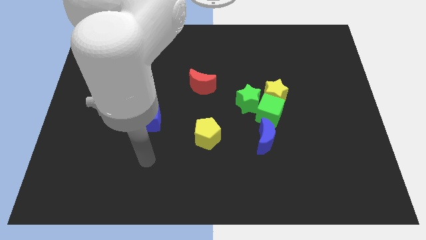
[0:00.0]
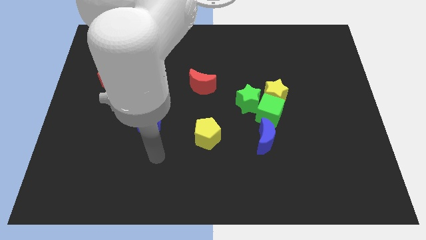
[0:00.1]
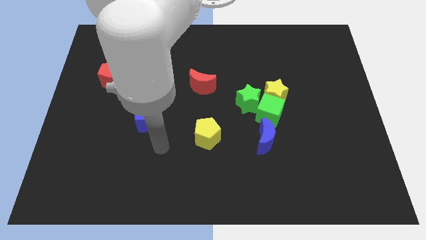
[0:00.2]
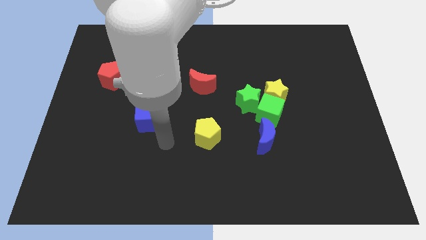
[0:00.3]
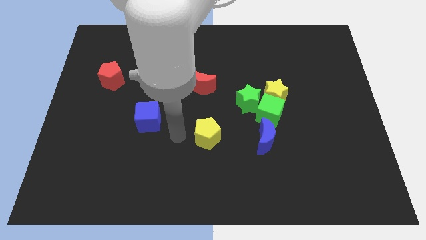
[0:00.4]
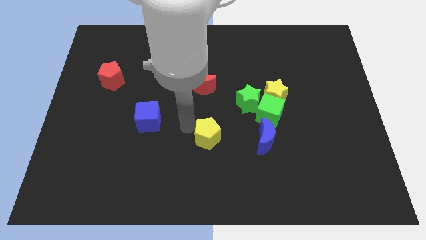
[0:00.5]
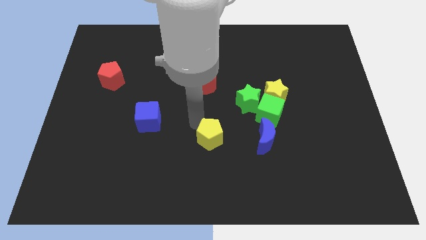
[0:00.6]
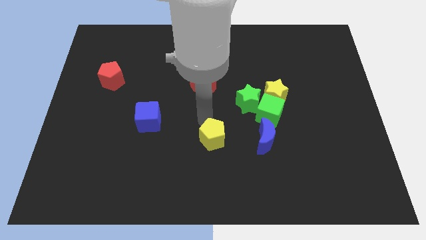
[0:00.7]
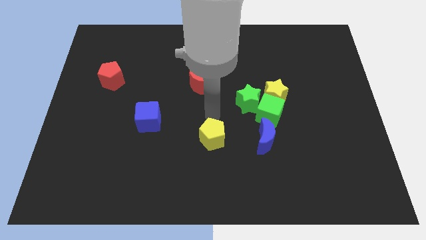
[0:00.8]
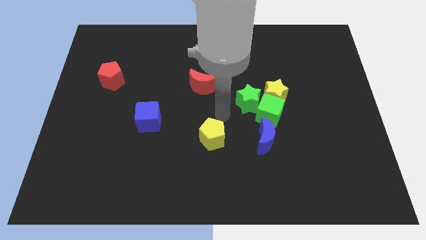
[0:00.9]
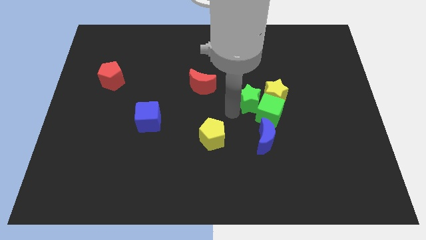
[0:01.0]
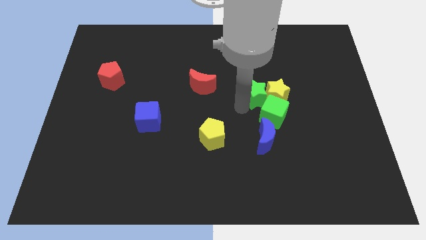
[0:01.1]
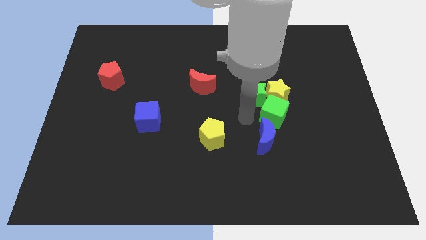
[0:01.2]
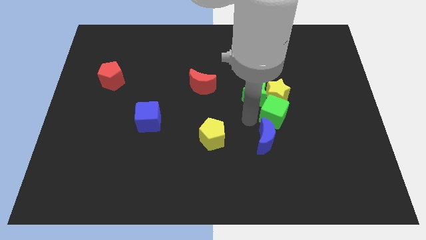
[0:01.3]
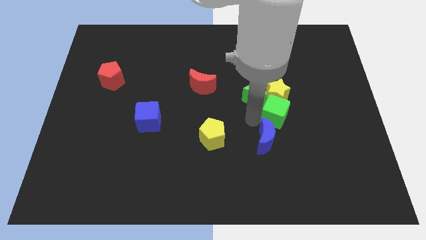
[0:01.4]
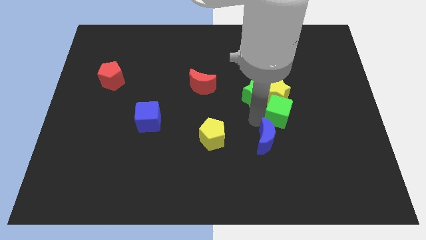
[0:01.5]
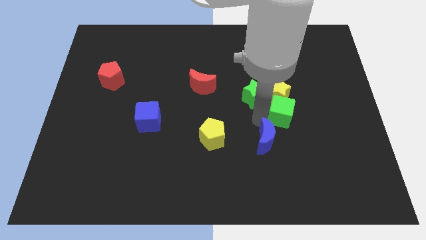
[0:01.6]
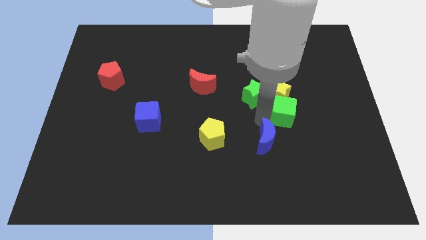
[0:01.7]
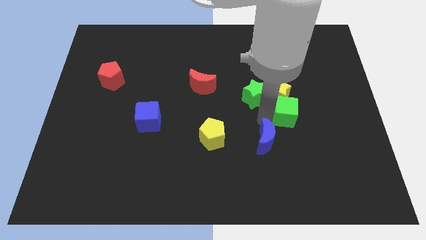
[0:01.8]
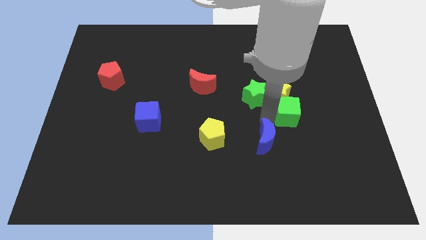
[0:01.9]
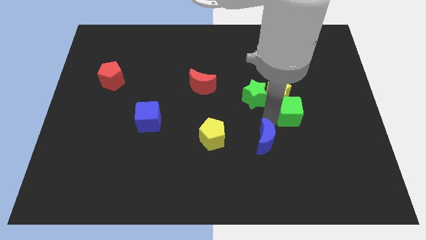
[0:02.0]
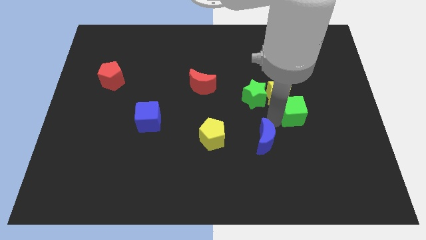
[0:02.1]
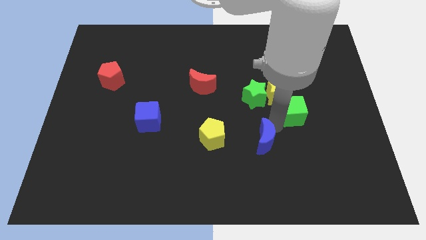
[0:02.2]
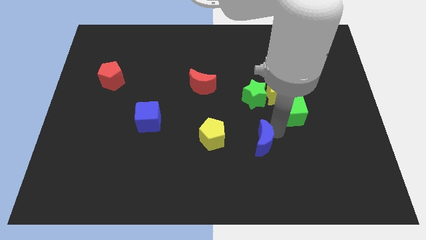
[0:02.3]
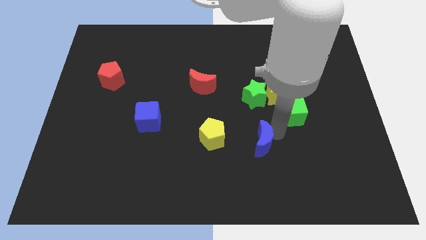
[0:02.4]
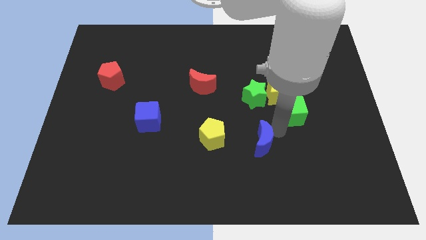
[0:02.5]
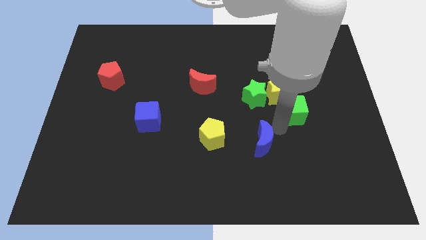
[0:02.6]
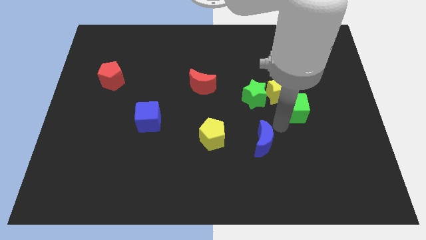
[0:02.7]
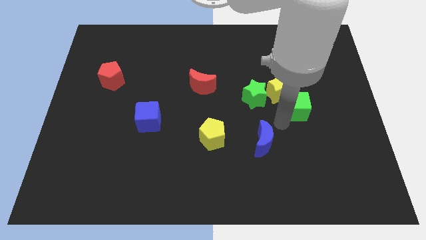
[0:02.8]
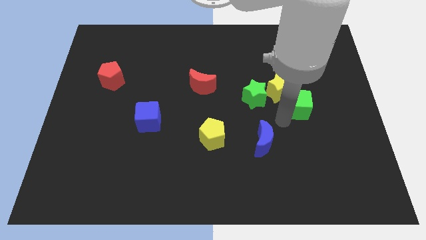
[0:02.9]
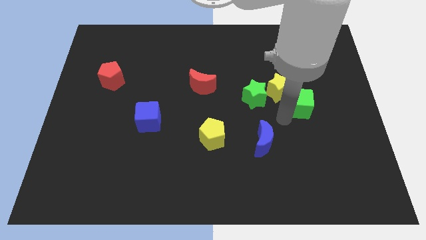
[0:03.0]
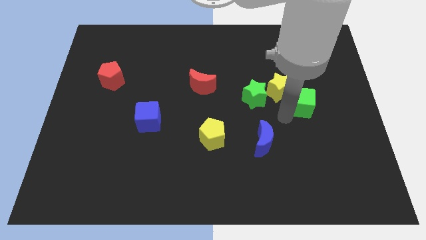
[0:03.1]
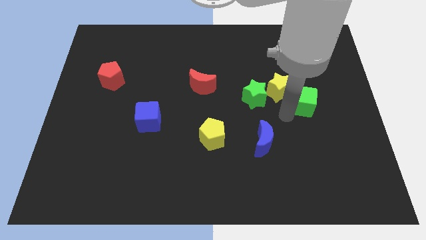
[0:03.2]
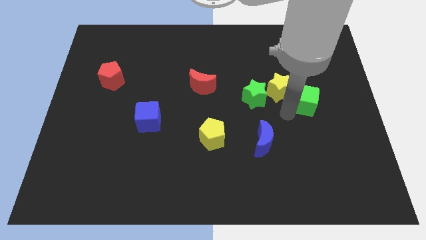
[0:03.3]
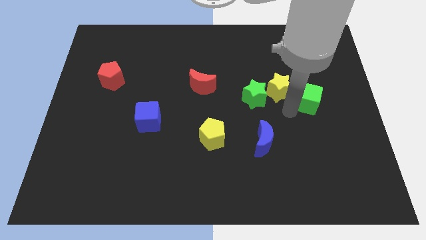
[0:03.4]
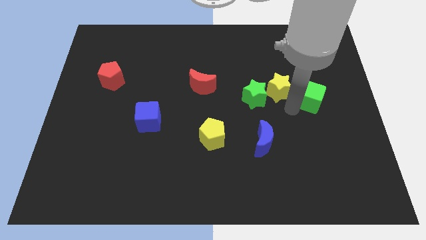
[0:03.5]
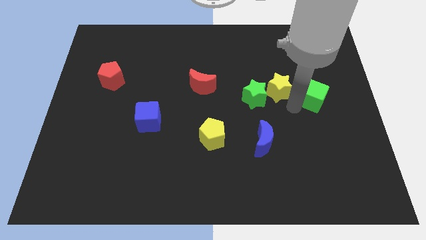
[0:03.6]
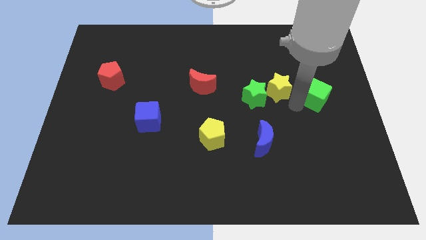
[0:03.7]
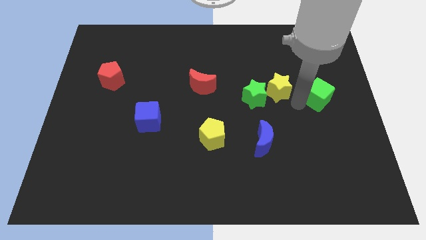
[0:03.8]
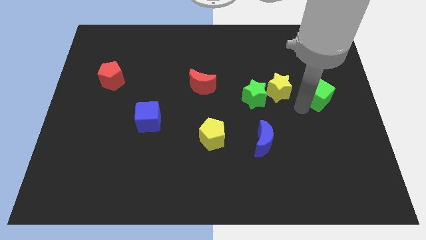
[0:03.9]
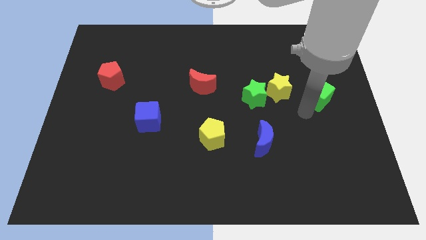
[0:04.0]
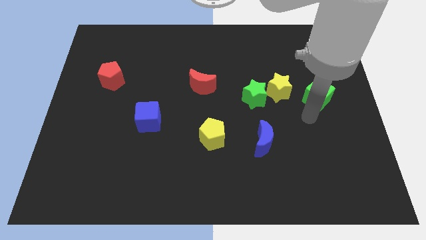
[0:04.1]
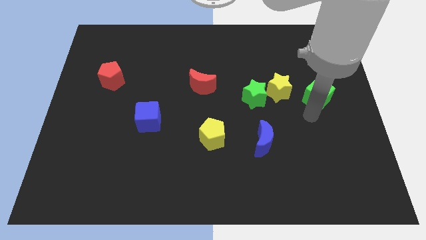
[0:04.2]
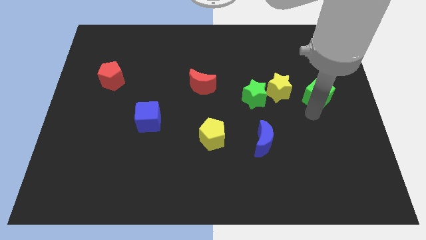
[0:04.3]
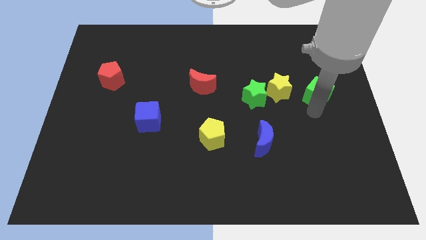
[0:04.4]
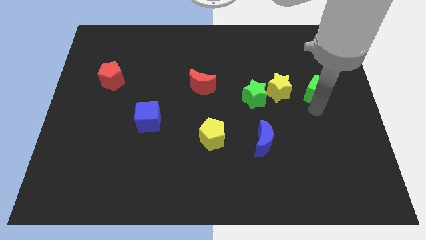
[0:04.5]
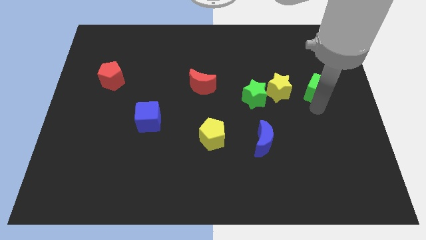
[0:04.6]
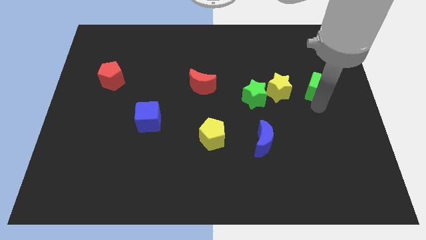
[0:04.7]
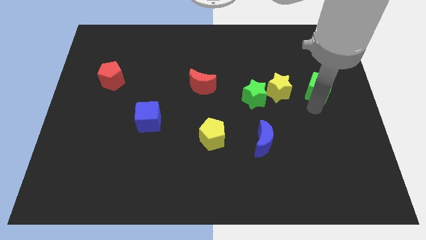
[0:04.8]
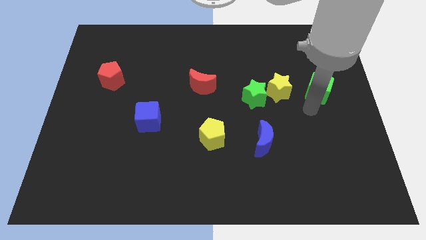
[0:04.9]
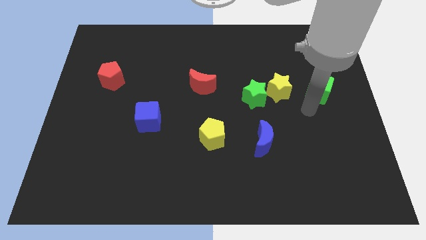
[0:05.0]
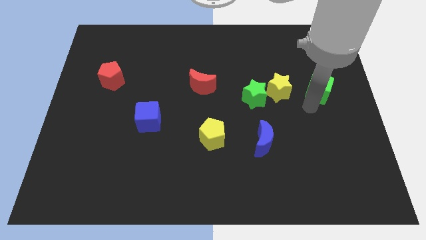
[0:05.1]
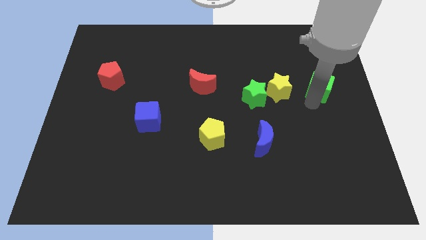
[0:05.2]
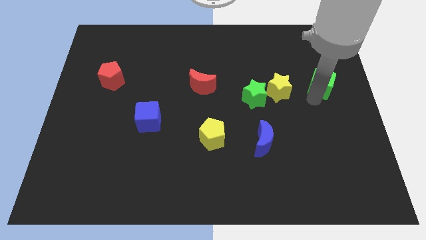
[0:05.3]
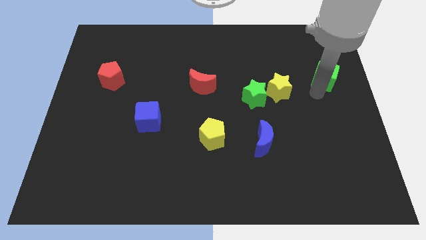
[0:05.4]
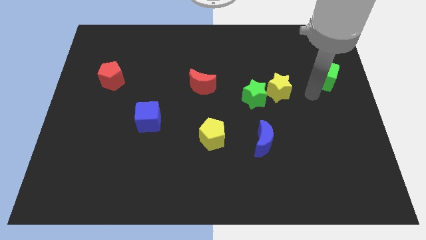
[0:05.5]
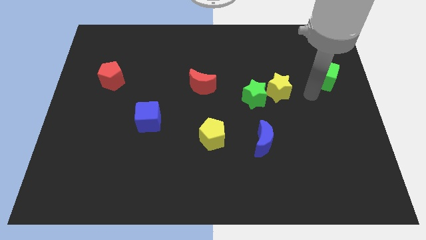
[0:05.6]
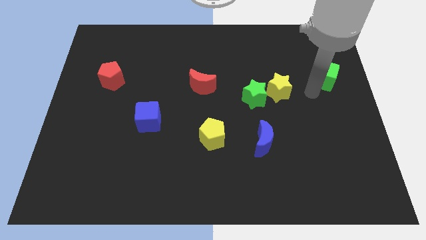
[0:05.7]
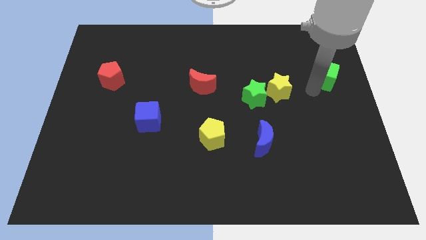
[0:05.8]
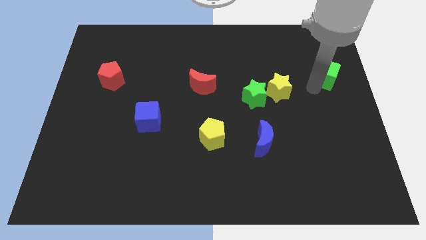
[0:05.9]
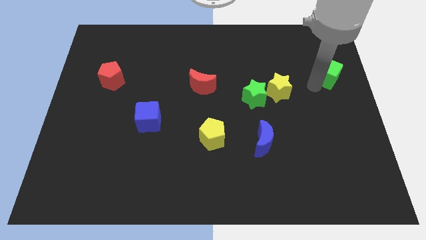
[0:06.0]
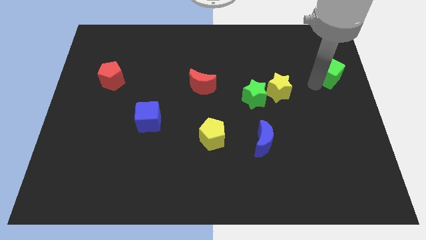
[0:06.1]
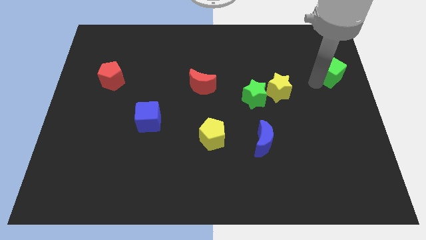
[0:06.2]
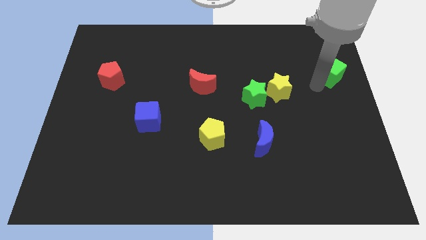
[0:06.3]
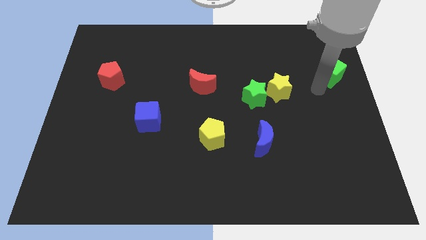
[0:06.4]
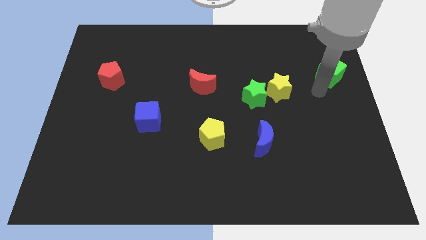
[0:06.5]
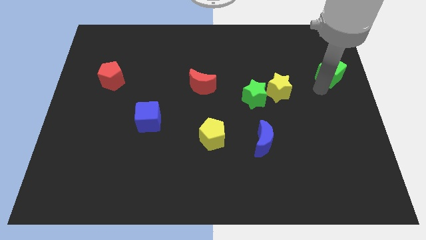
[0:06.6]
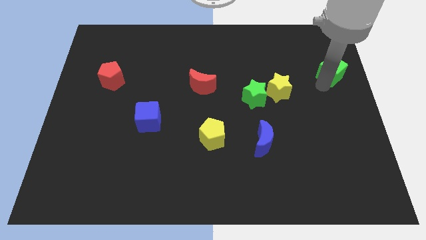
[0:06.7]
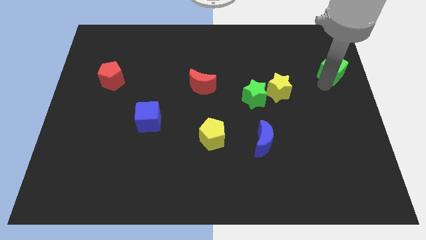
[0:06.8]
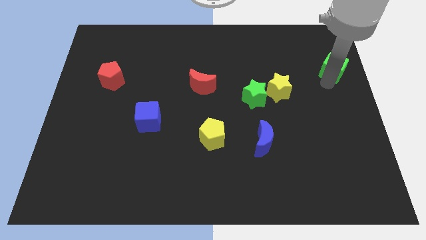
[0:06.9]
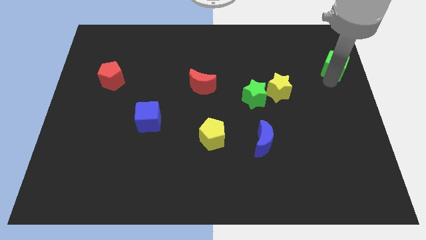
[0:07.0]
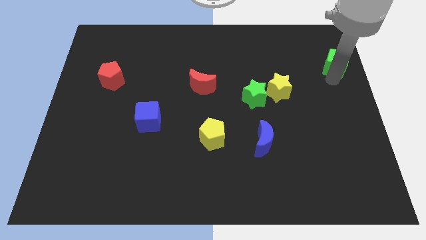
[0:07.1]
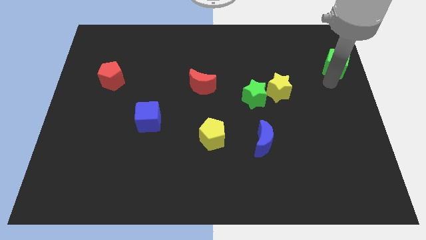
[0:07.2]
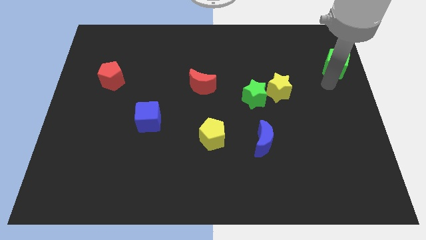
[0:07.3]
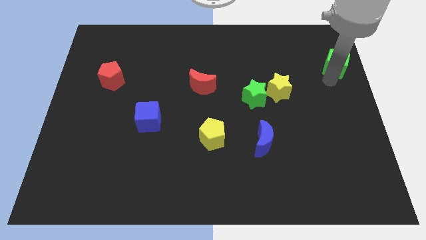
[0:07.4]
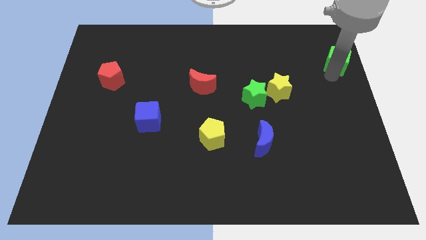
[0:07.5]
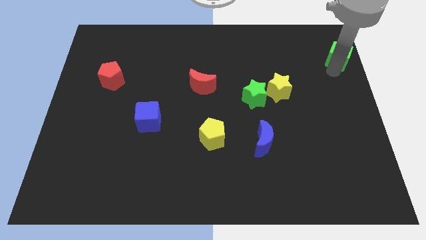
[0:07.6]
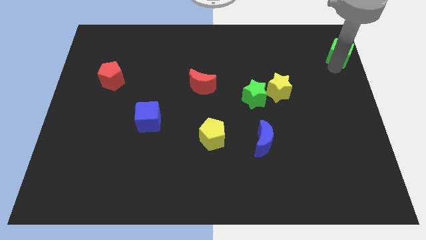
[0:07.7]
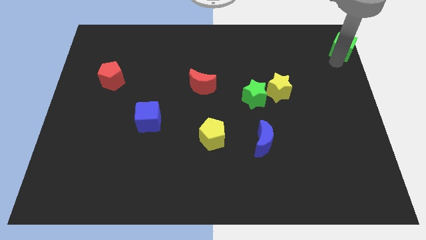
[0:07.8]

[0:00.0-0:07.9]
put the green cube to the upper right corner
